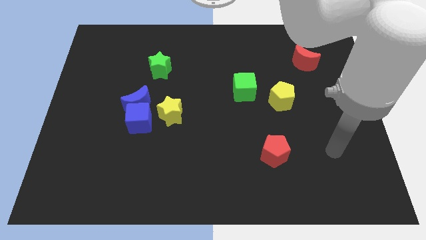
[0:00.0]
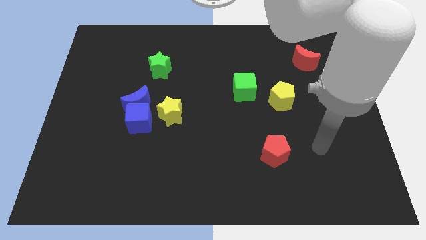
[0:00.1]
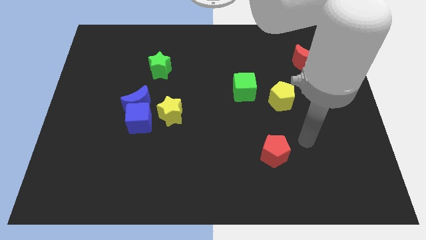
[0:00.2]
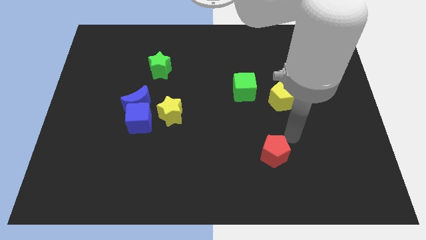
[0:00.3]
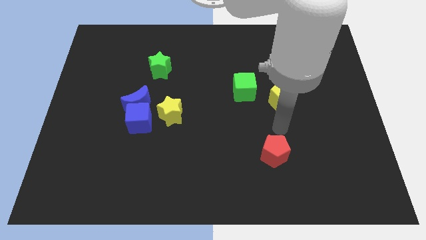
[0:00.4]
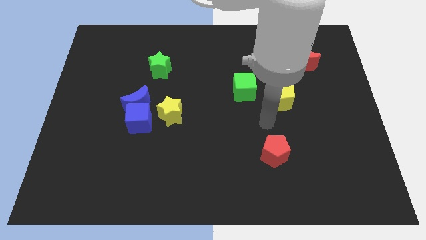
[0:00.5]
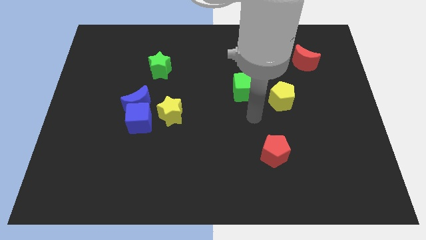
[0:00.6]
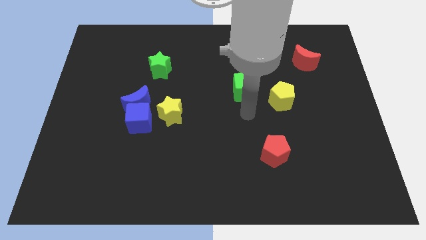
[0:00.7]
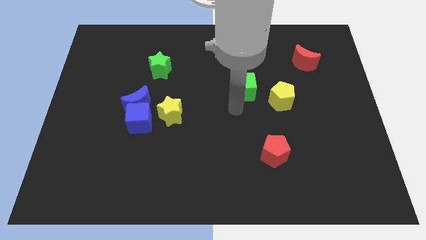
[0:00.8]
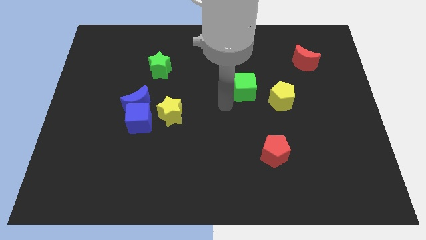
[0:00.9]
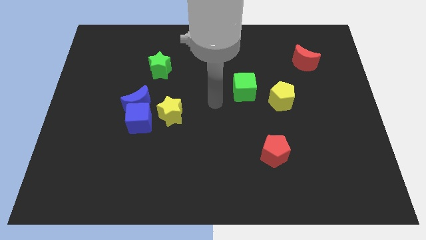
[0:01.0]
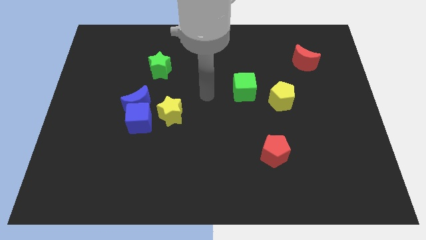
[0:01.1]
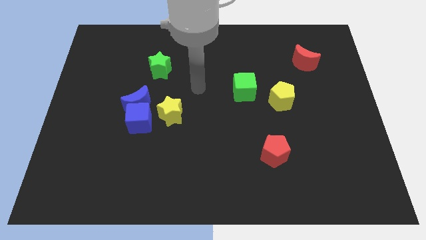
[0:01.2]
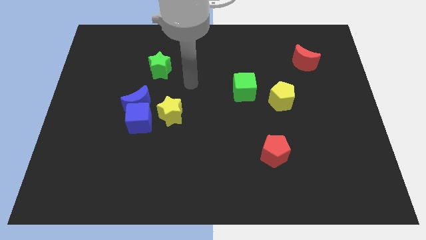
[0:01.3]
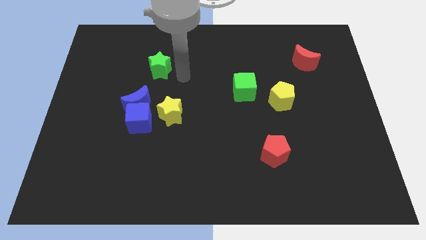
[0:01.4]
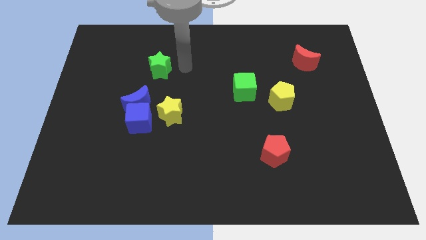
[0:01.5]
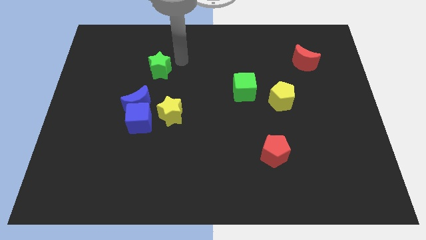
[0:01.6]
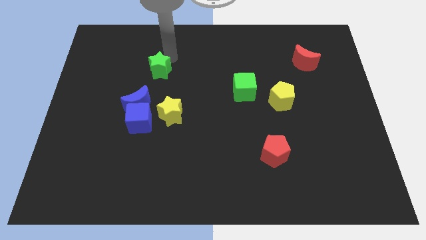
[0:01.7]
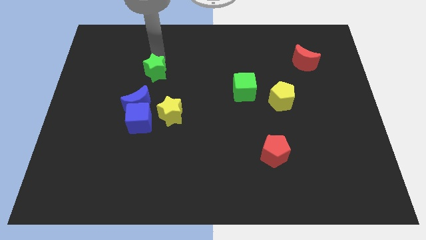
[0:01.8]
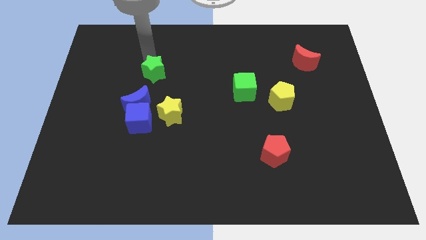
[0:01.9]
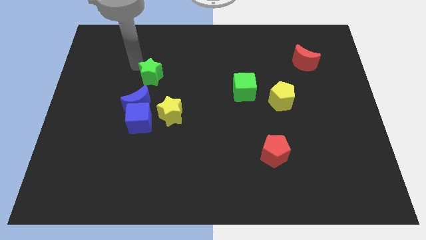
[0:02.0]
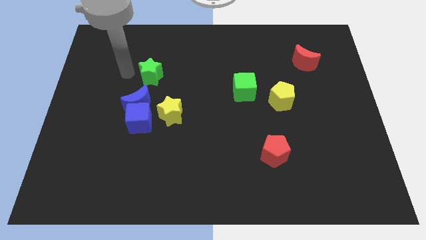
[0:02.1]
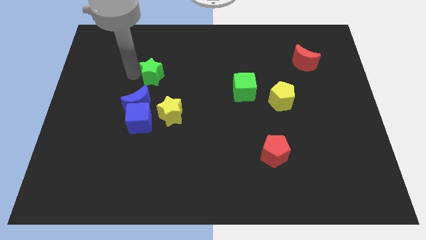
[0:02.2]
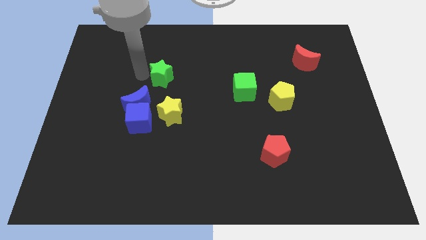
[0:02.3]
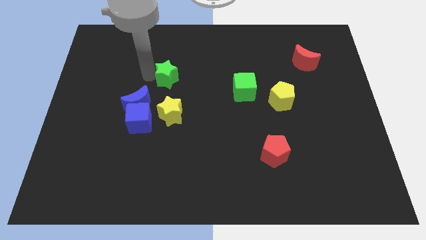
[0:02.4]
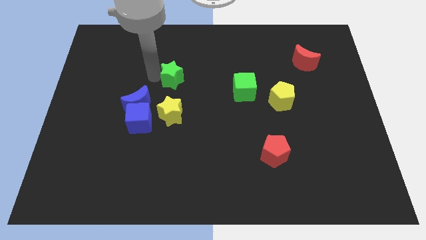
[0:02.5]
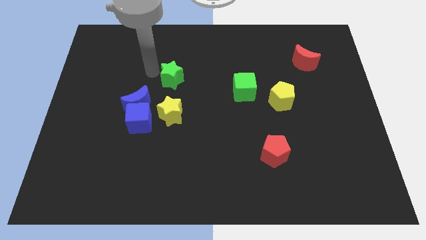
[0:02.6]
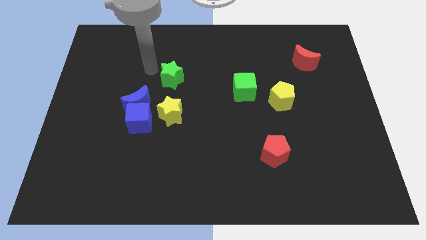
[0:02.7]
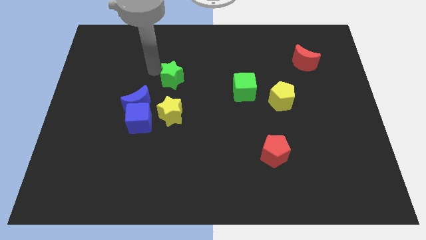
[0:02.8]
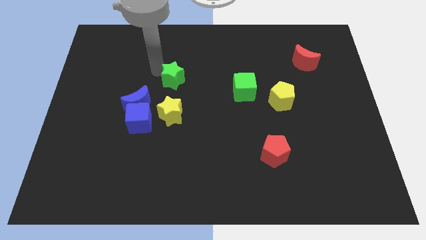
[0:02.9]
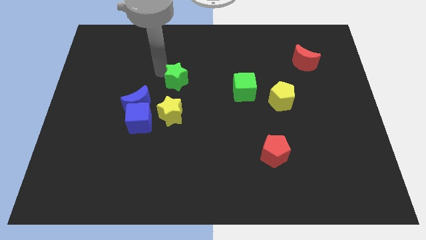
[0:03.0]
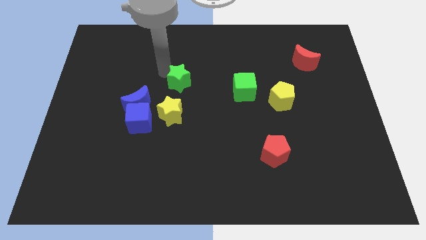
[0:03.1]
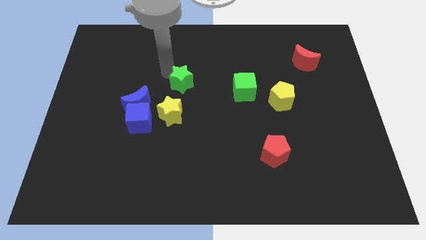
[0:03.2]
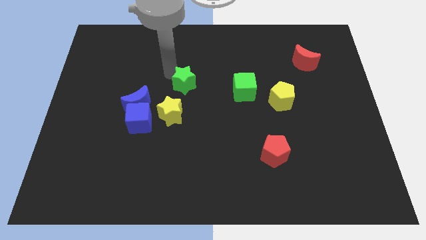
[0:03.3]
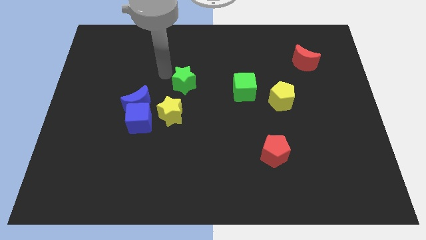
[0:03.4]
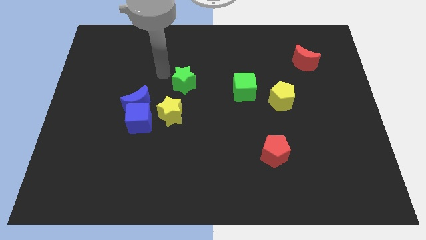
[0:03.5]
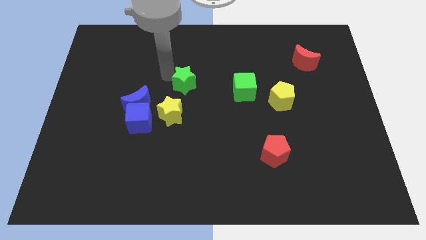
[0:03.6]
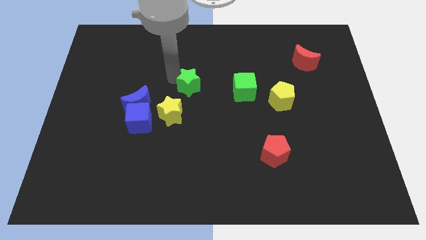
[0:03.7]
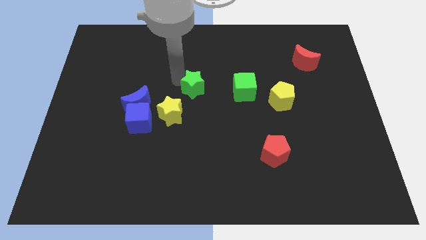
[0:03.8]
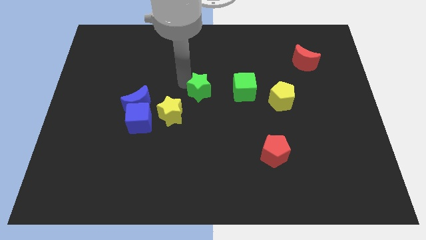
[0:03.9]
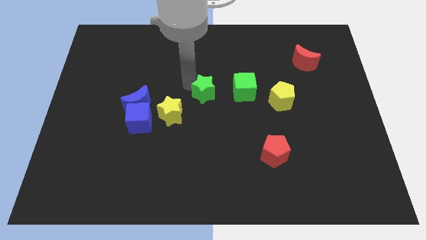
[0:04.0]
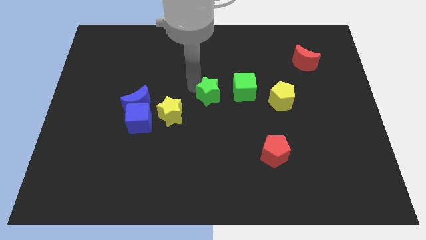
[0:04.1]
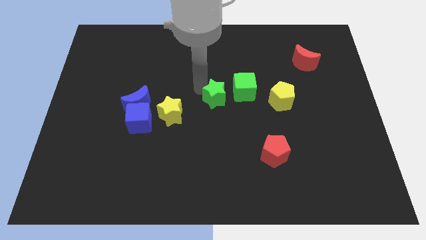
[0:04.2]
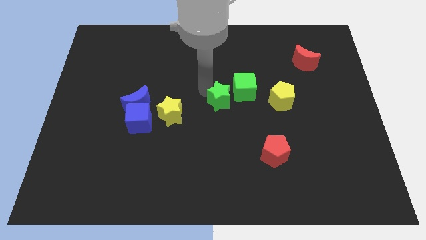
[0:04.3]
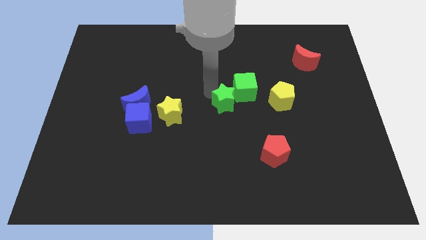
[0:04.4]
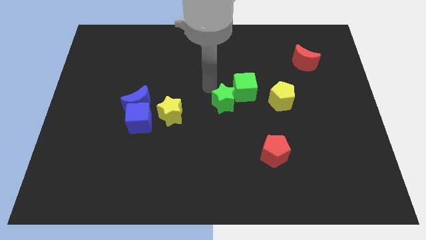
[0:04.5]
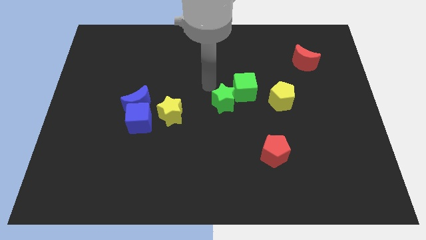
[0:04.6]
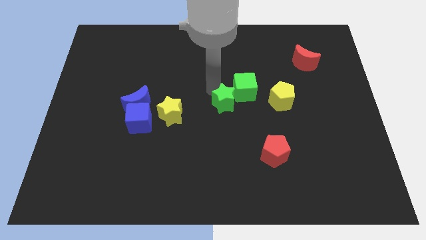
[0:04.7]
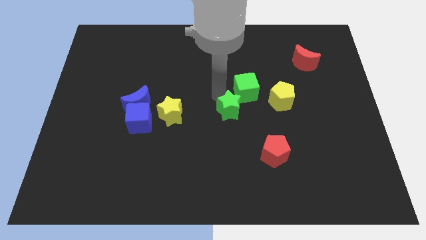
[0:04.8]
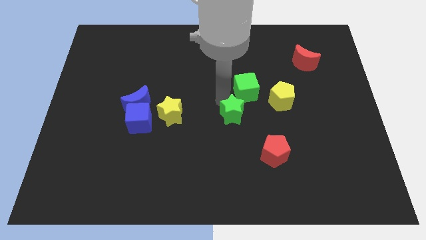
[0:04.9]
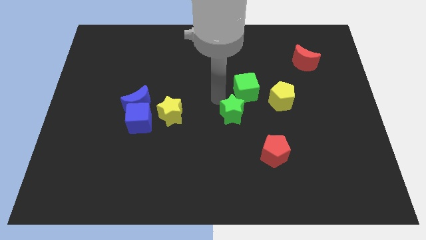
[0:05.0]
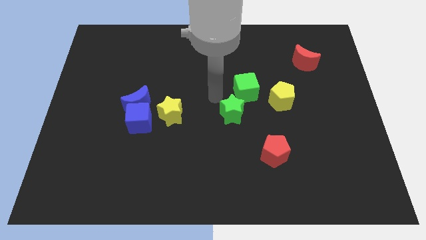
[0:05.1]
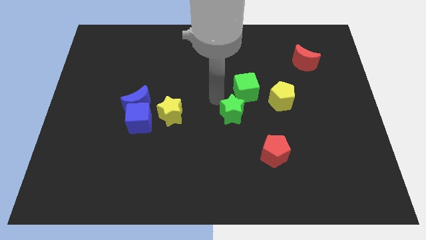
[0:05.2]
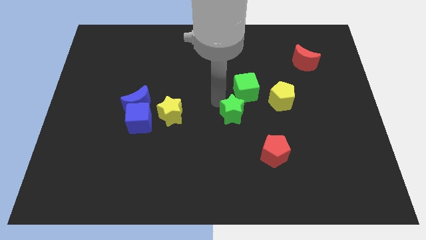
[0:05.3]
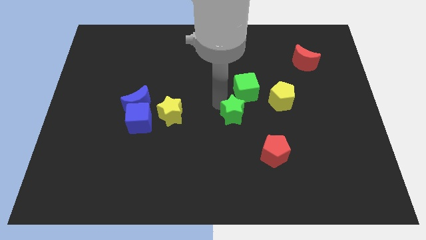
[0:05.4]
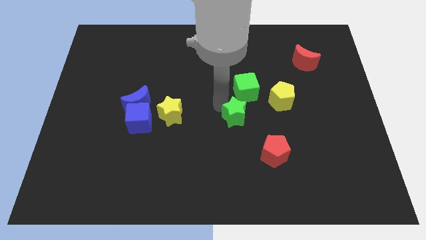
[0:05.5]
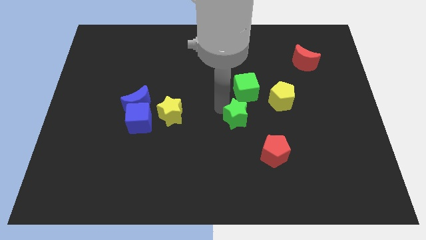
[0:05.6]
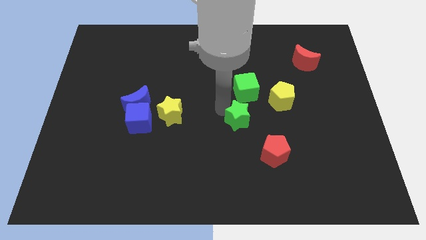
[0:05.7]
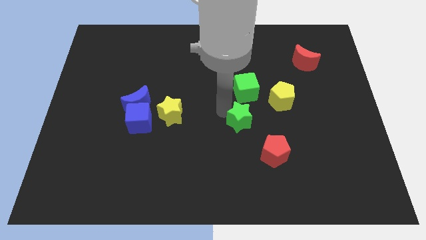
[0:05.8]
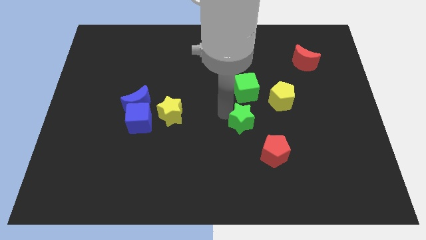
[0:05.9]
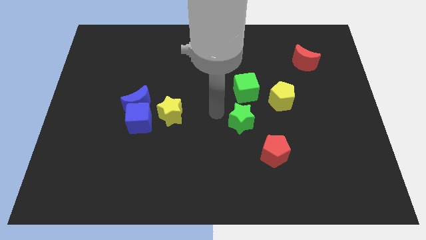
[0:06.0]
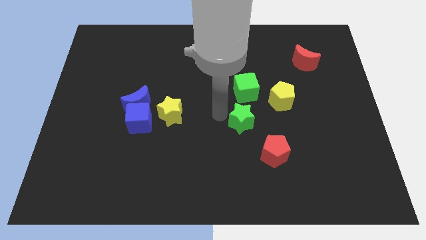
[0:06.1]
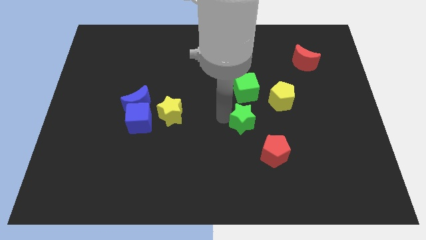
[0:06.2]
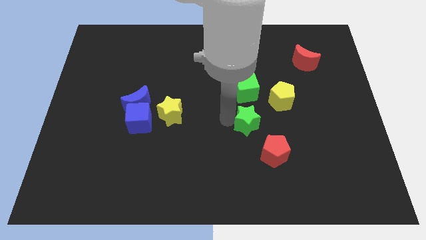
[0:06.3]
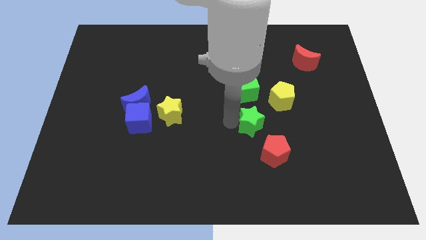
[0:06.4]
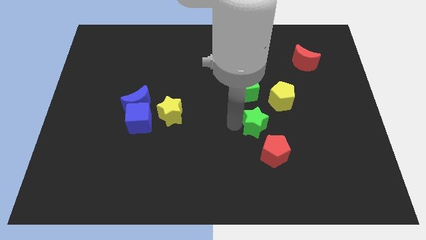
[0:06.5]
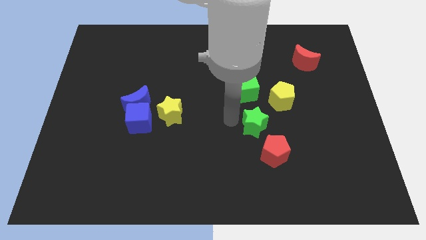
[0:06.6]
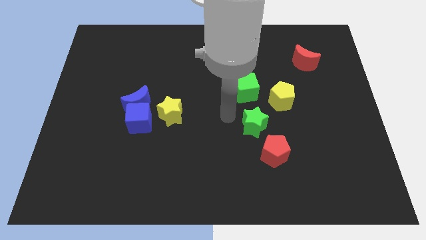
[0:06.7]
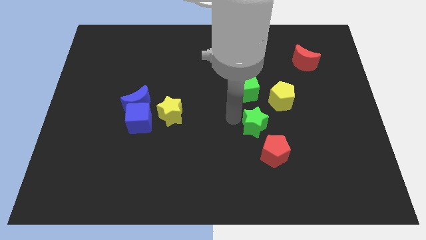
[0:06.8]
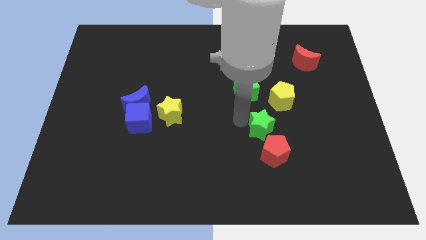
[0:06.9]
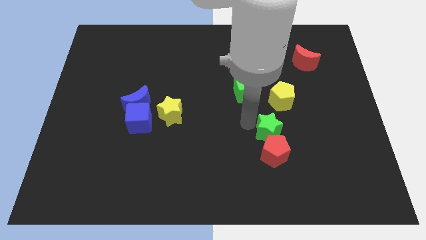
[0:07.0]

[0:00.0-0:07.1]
slide the green star below the yellow pentagon

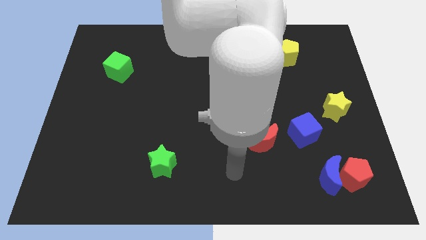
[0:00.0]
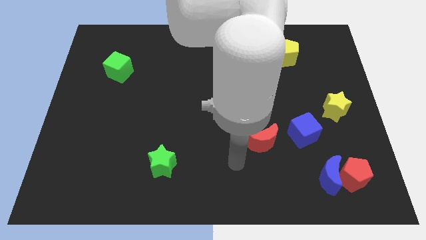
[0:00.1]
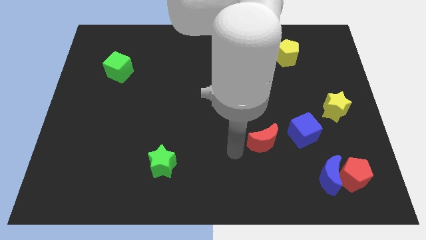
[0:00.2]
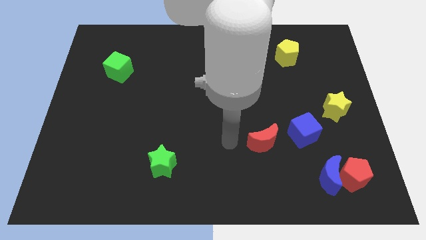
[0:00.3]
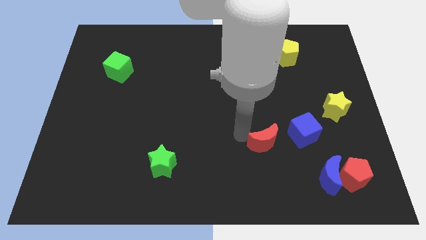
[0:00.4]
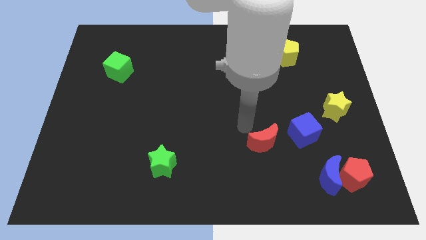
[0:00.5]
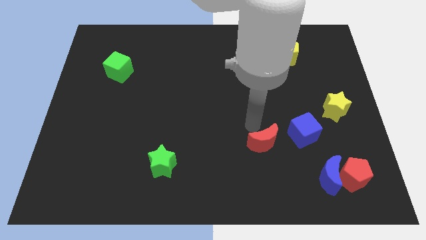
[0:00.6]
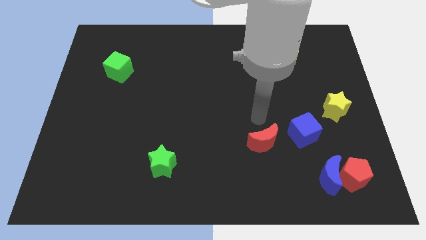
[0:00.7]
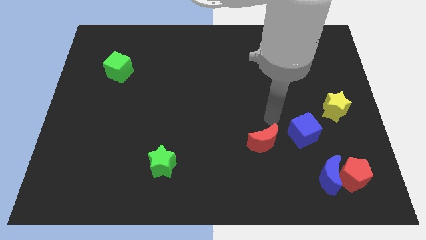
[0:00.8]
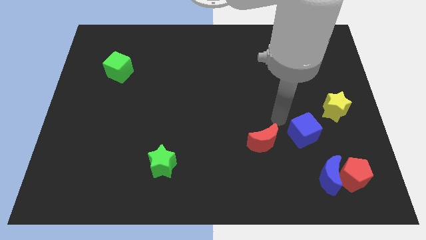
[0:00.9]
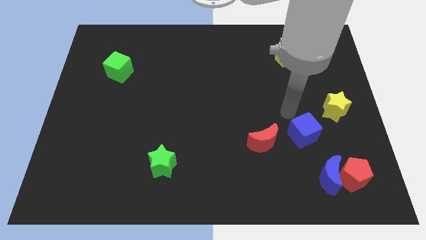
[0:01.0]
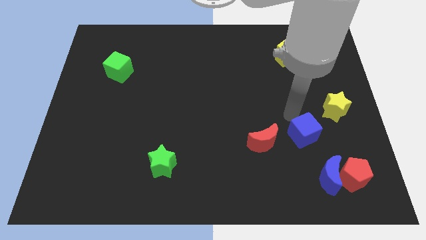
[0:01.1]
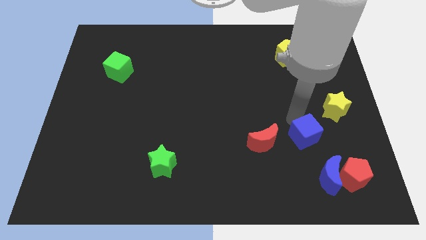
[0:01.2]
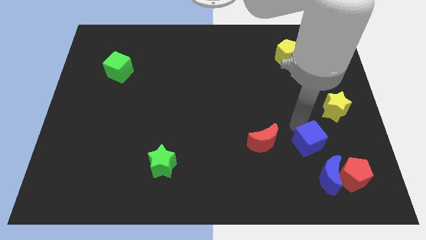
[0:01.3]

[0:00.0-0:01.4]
push the blue cube diagonally up and to the left of the red pentagon
